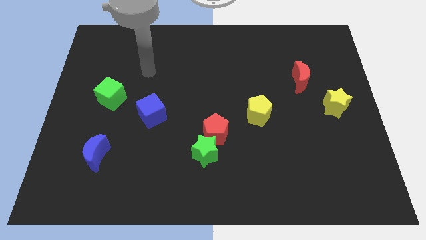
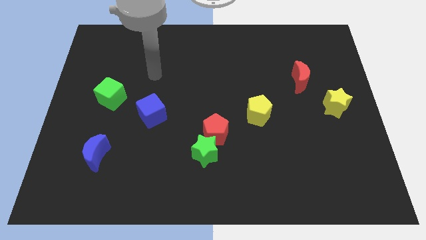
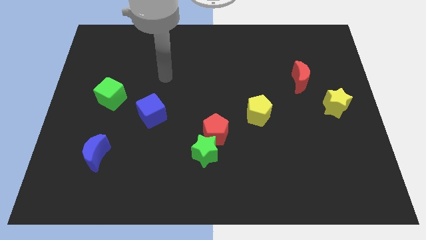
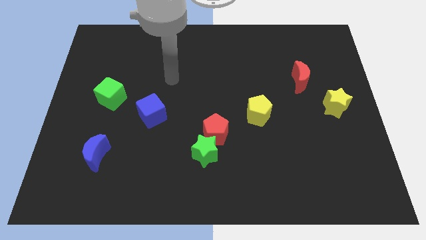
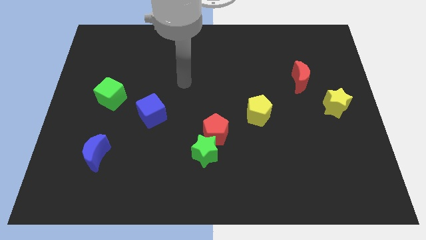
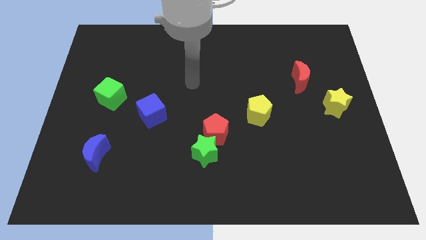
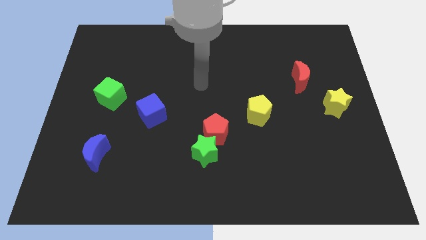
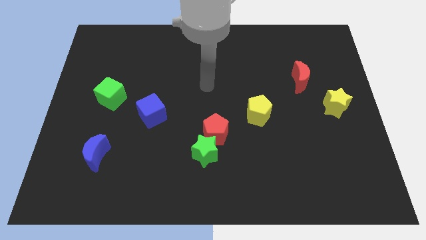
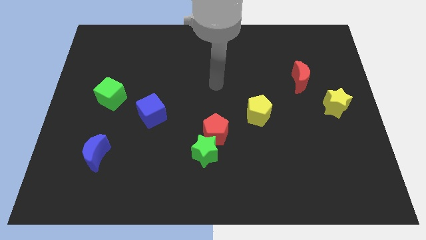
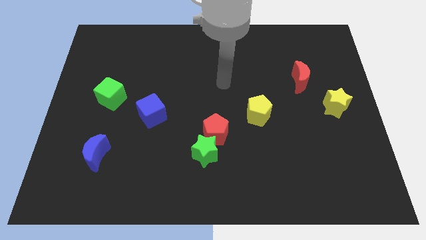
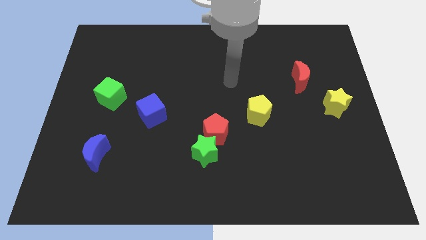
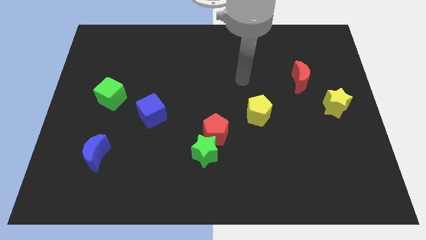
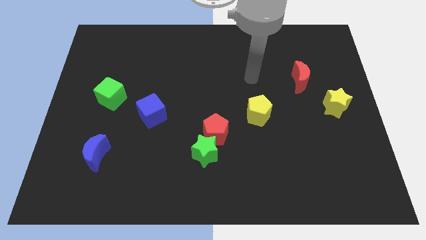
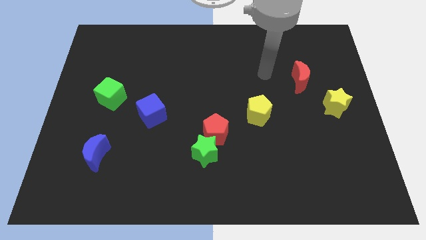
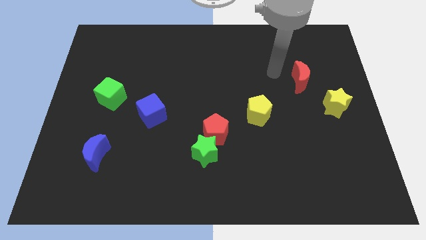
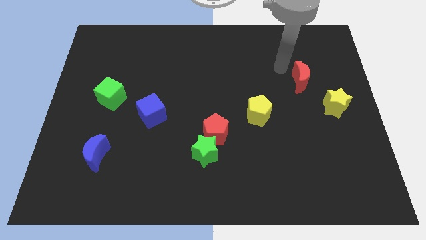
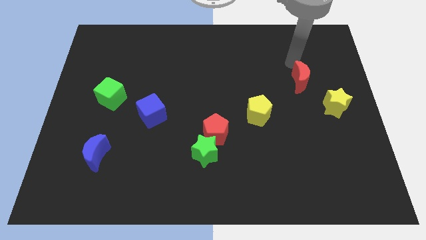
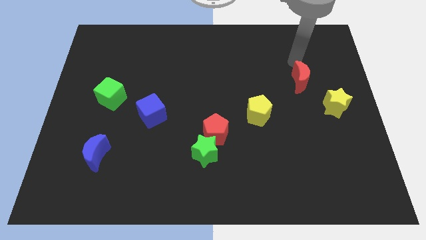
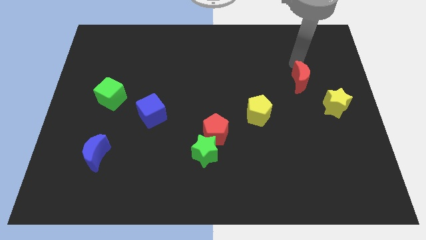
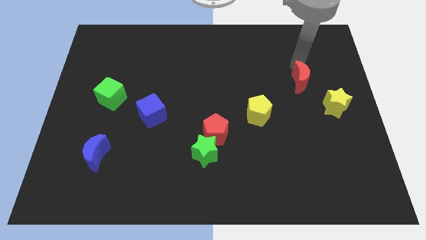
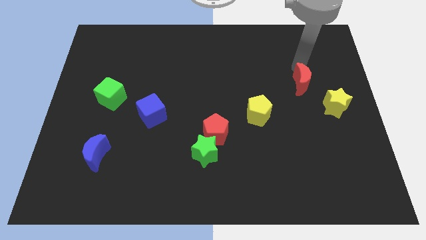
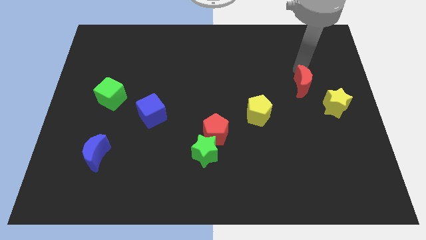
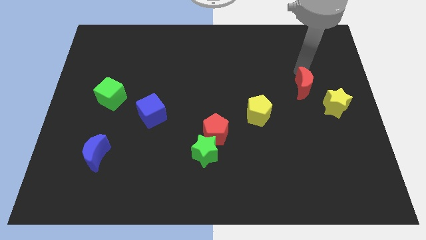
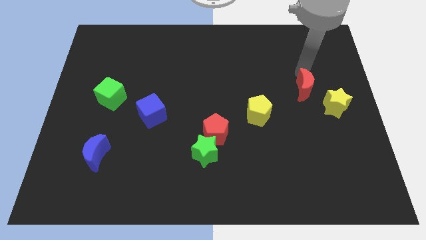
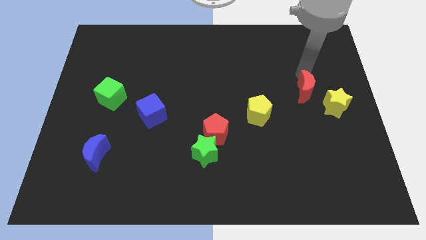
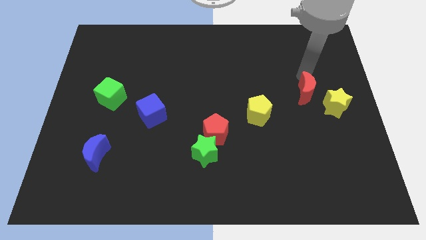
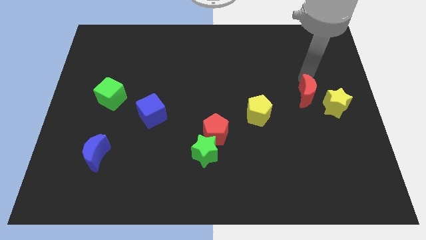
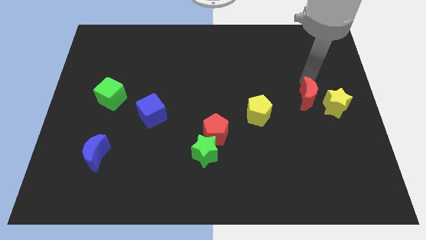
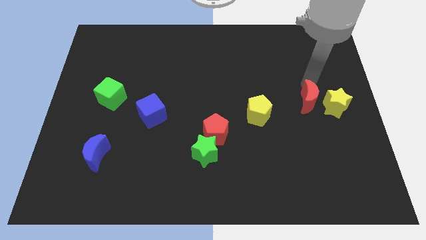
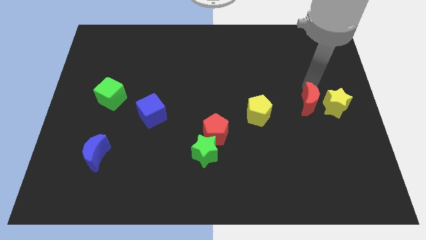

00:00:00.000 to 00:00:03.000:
move the red moon downwards a little

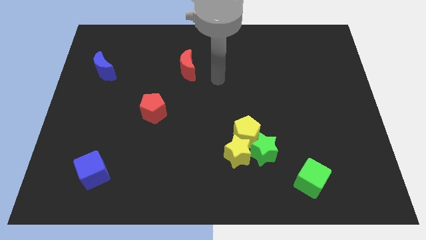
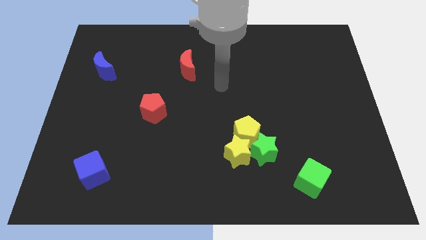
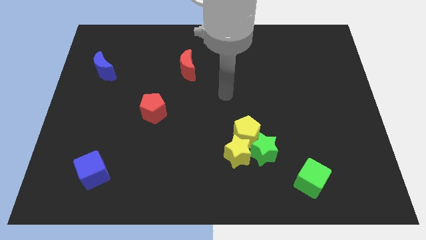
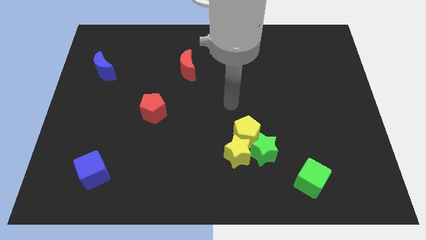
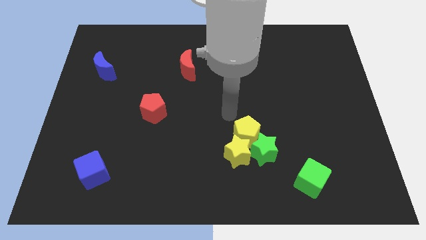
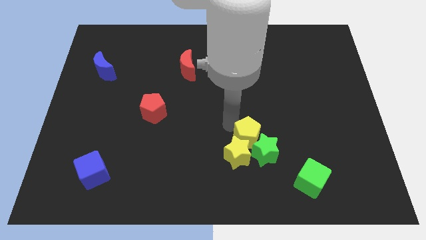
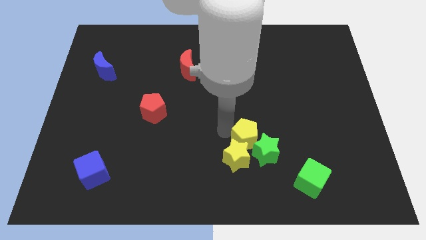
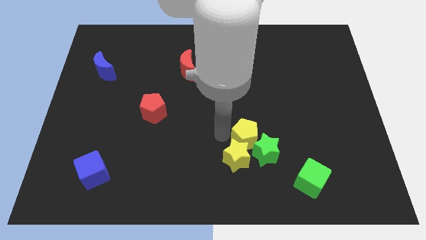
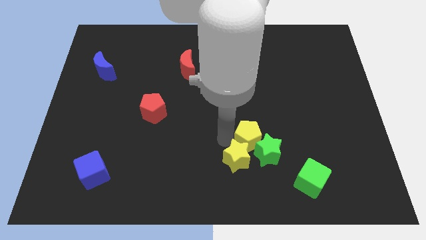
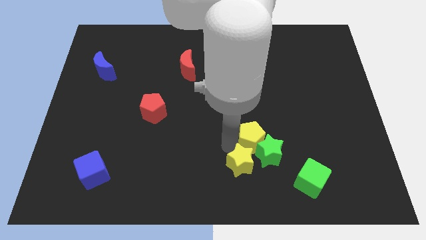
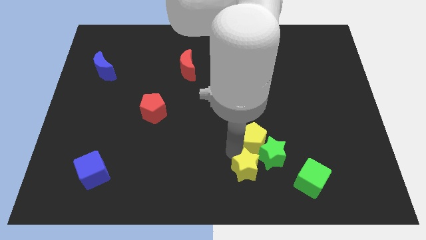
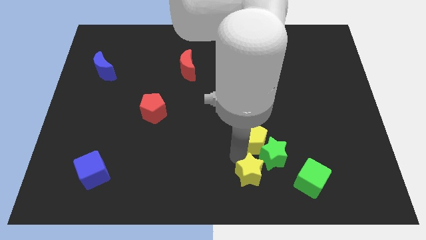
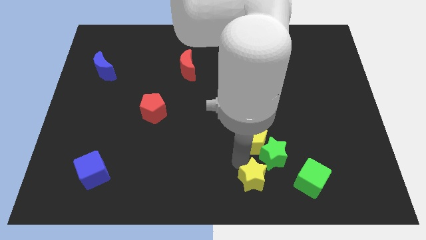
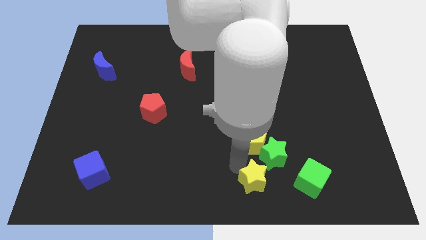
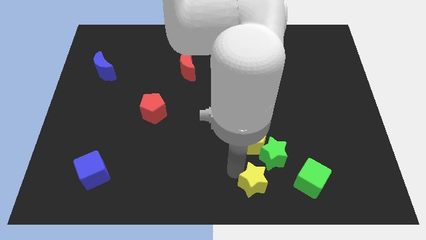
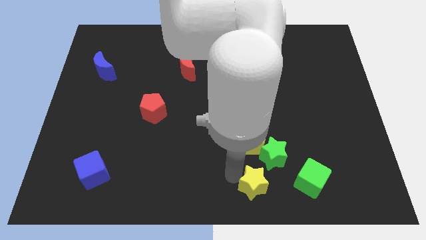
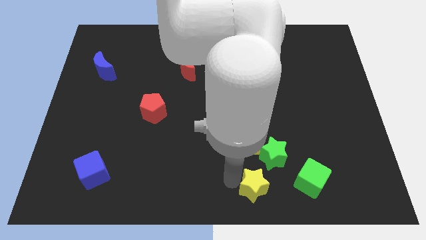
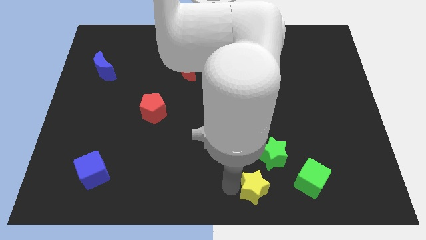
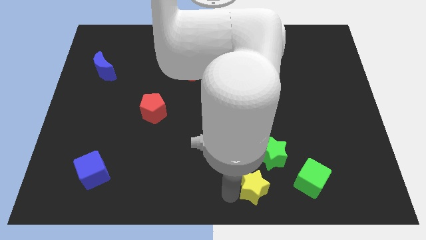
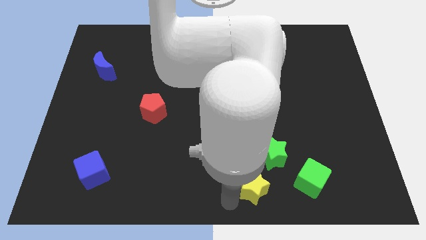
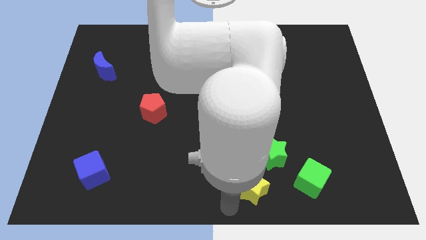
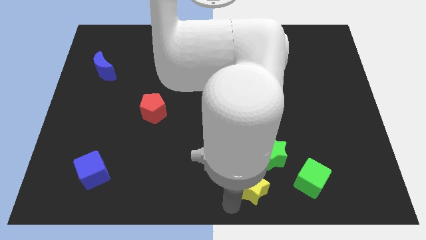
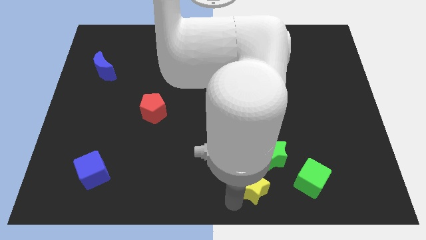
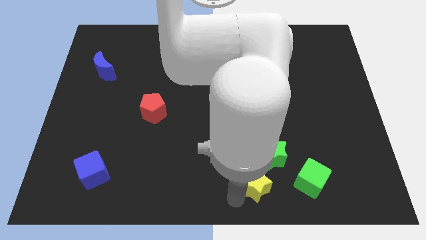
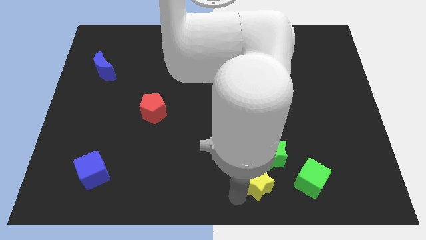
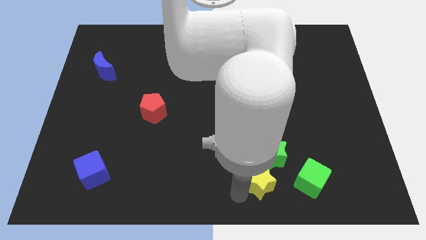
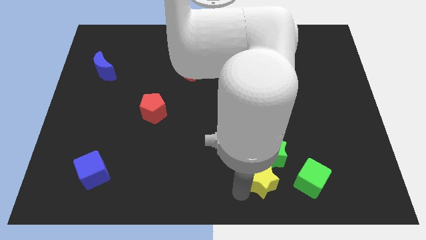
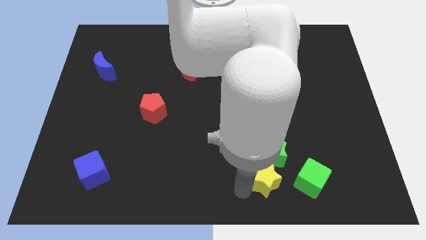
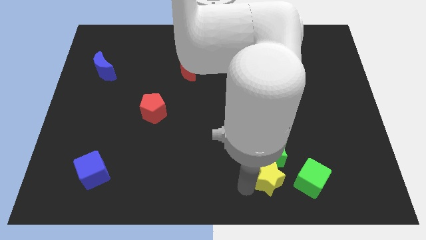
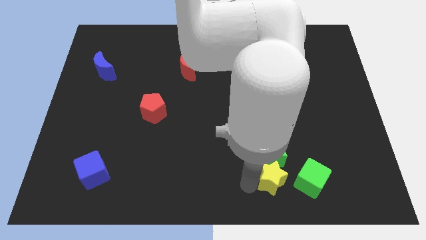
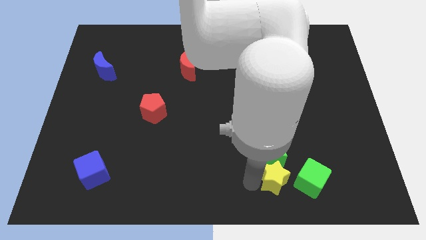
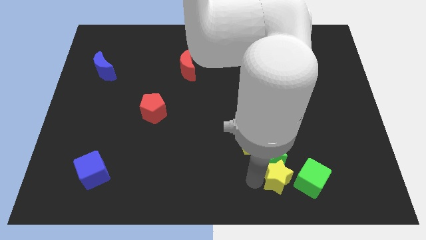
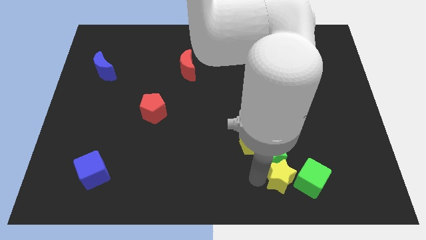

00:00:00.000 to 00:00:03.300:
push the yellow star somewhat to the right

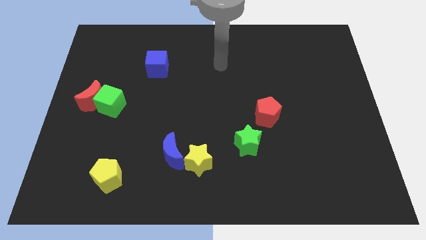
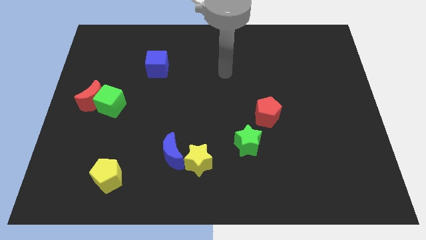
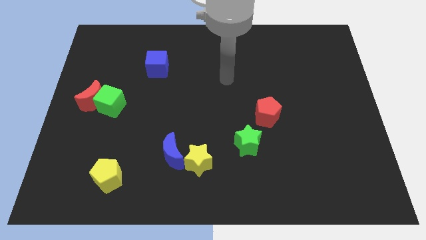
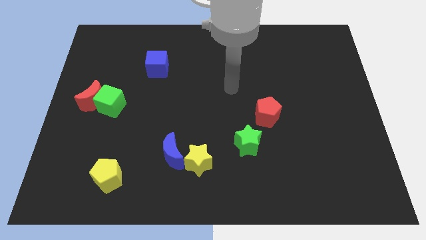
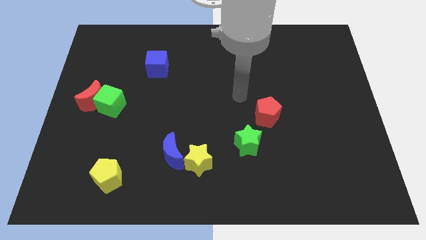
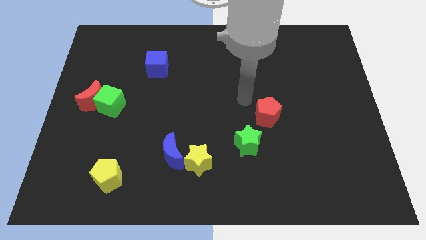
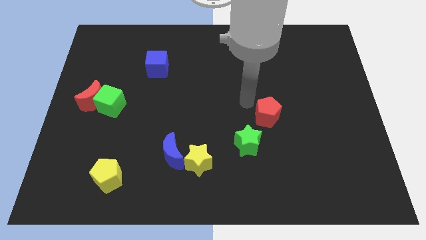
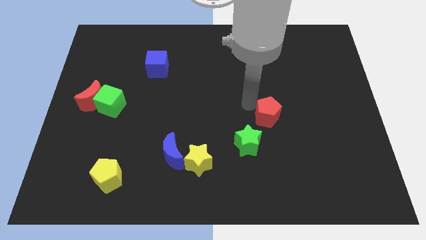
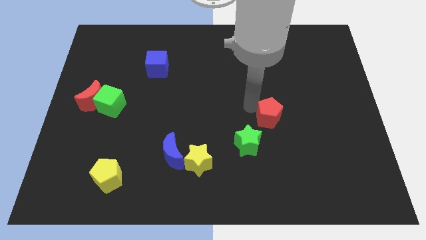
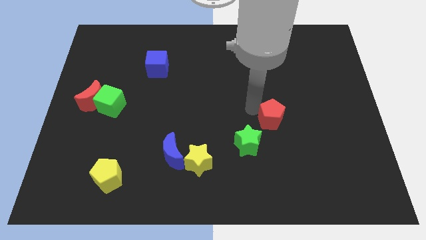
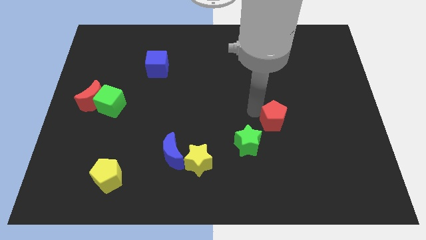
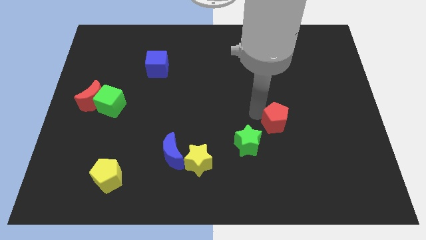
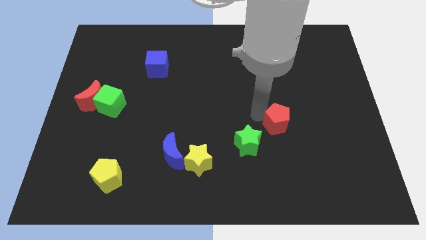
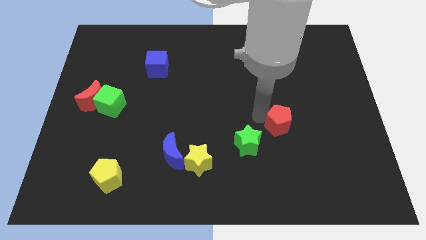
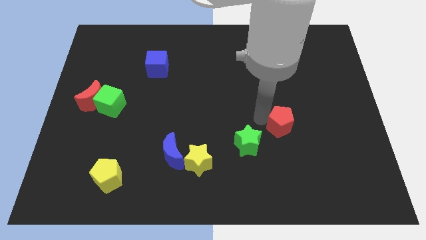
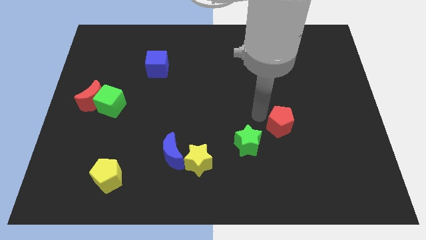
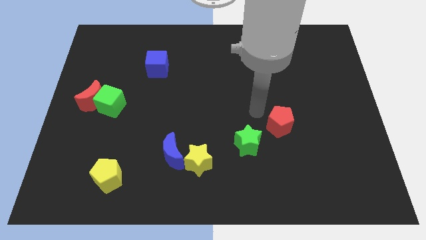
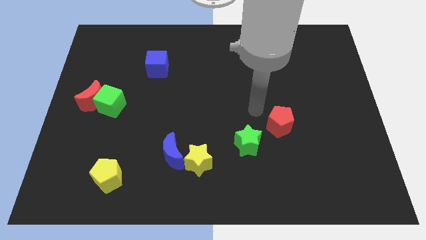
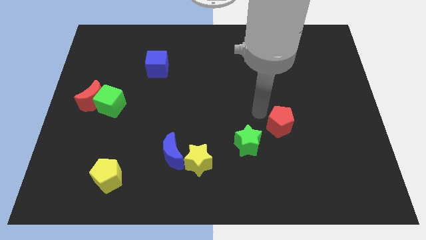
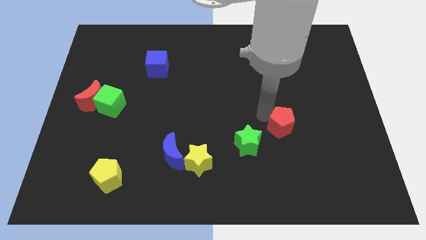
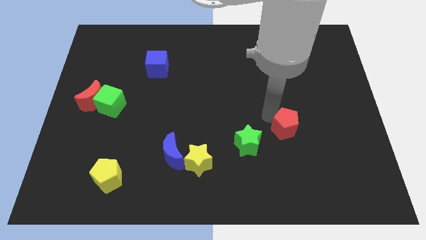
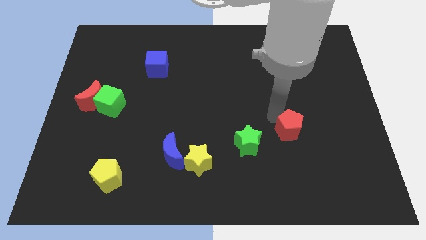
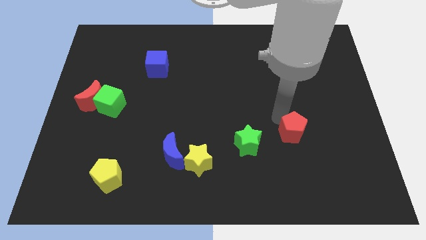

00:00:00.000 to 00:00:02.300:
move the red pentagon downwards and right a little bit
